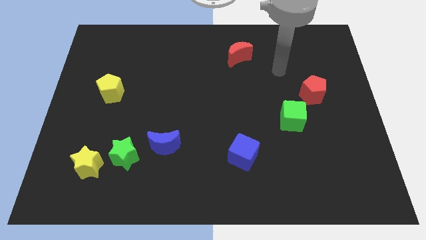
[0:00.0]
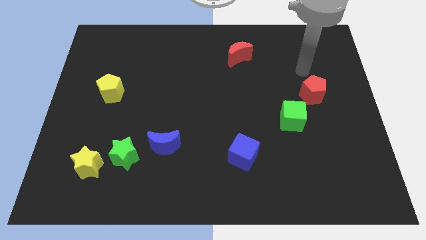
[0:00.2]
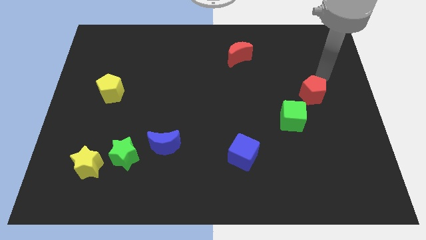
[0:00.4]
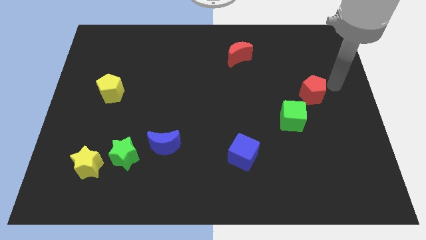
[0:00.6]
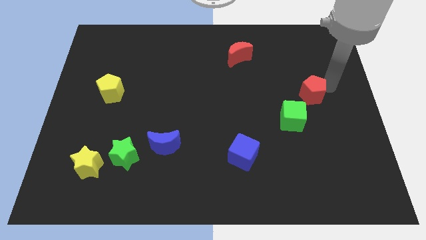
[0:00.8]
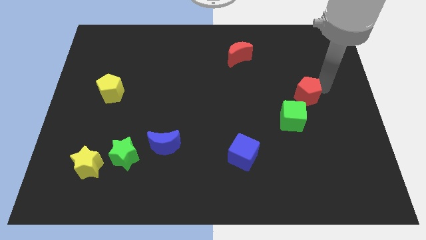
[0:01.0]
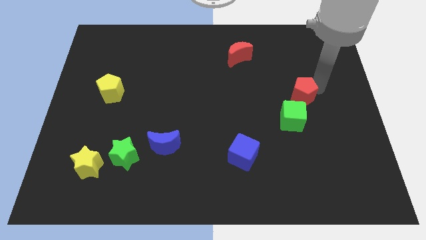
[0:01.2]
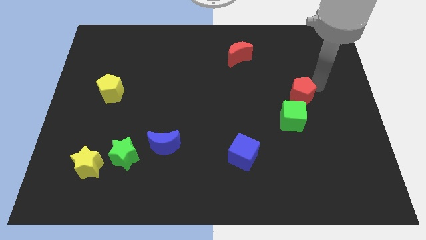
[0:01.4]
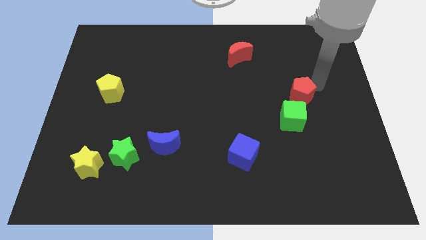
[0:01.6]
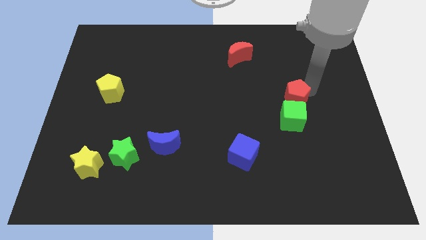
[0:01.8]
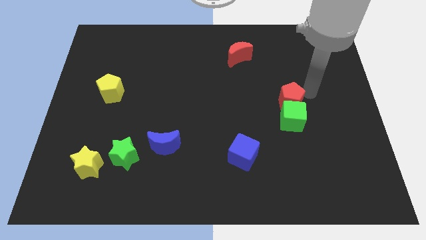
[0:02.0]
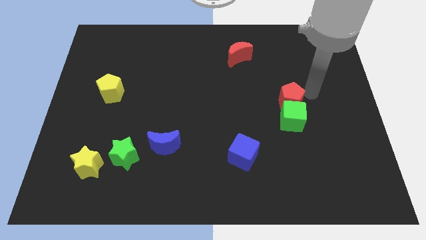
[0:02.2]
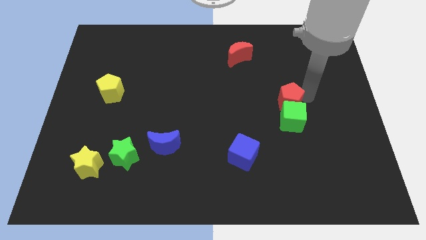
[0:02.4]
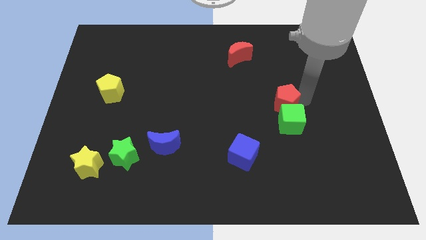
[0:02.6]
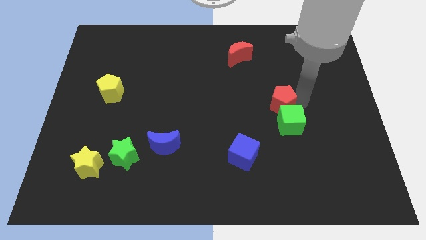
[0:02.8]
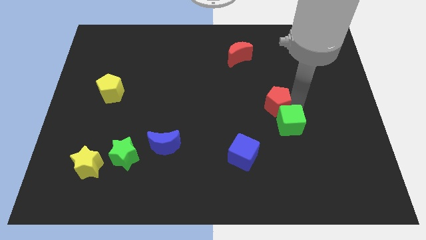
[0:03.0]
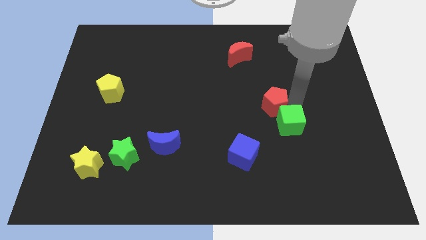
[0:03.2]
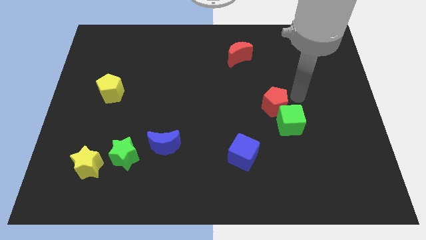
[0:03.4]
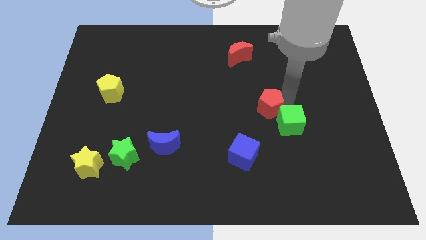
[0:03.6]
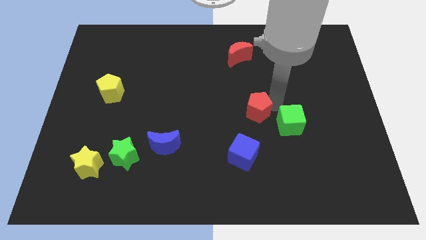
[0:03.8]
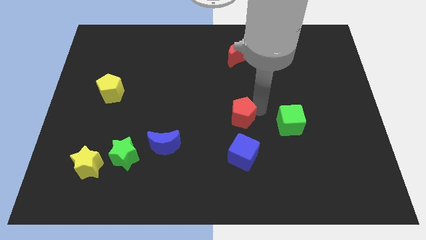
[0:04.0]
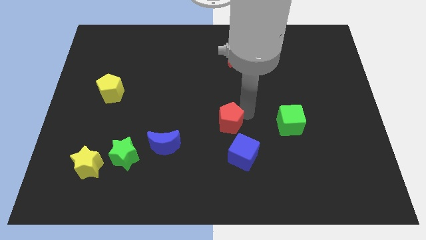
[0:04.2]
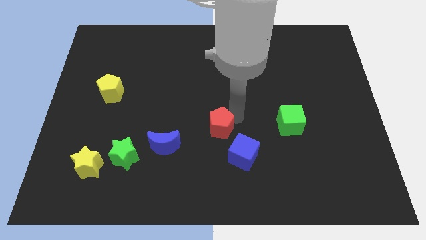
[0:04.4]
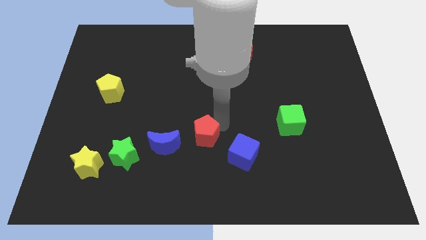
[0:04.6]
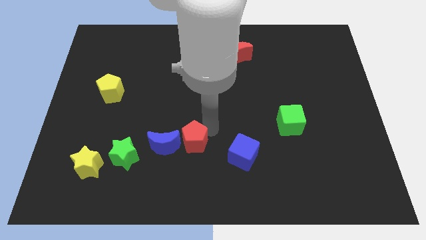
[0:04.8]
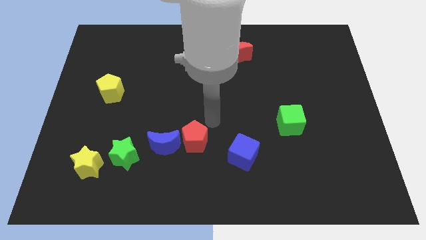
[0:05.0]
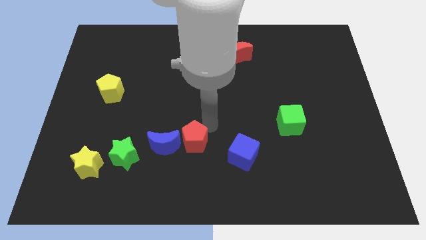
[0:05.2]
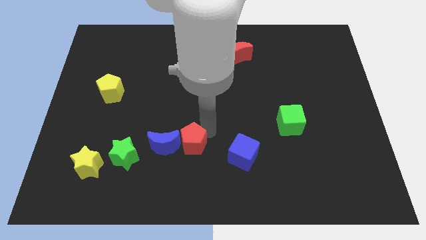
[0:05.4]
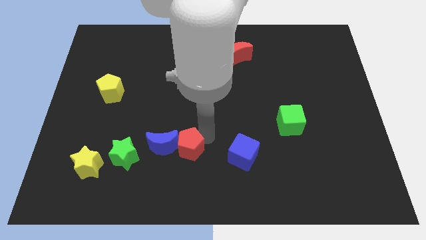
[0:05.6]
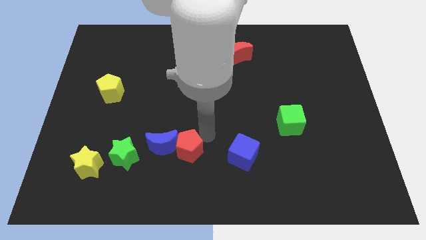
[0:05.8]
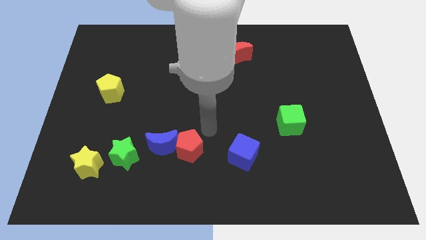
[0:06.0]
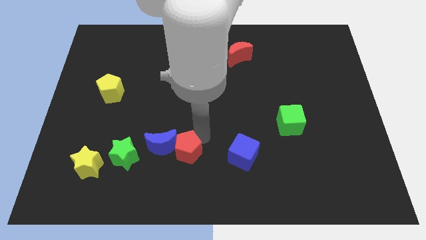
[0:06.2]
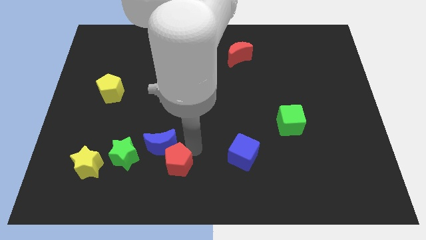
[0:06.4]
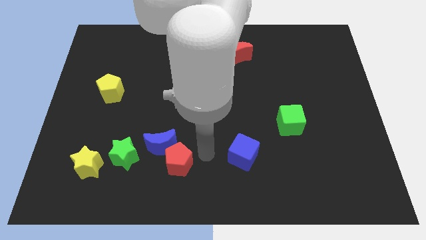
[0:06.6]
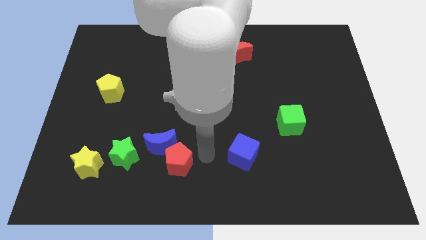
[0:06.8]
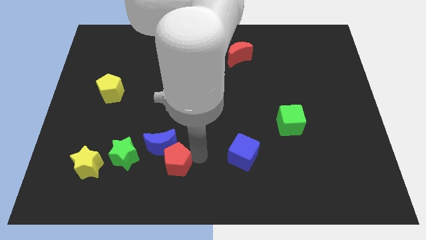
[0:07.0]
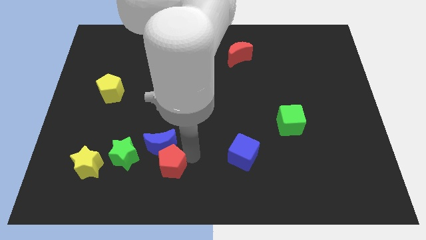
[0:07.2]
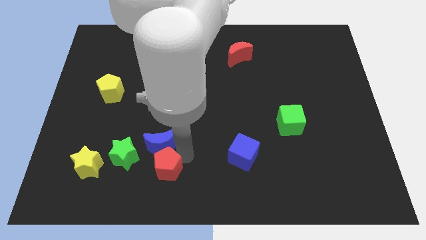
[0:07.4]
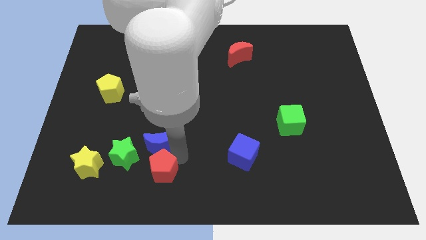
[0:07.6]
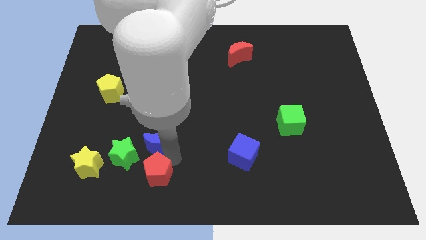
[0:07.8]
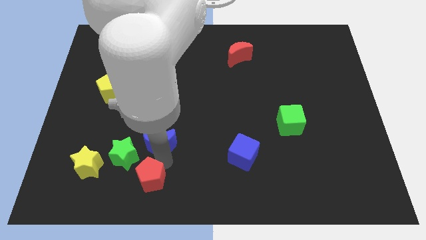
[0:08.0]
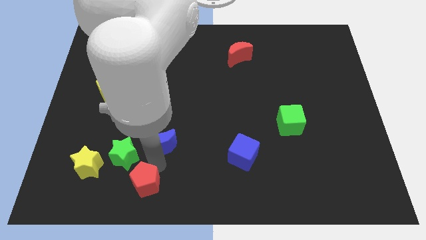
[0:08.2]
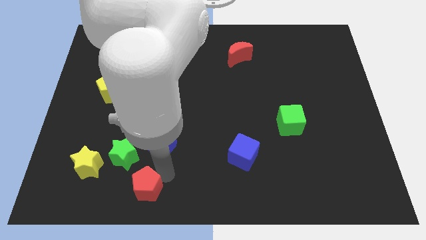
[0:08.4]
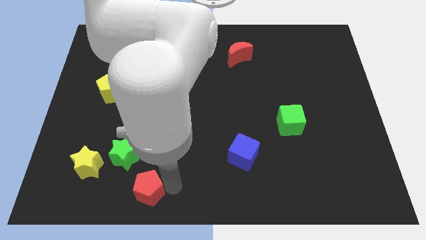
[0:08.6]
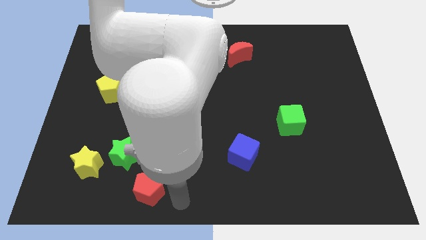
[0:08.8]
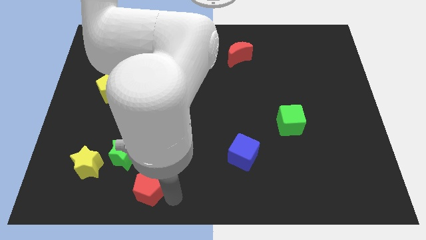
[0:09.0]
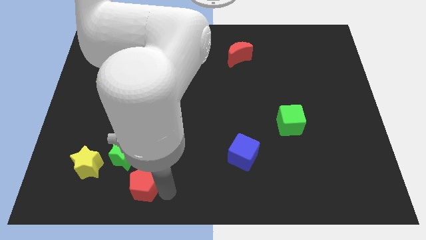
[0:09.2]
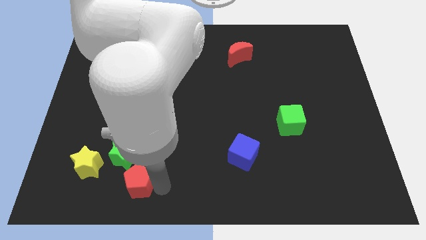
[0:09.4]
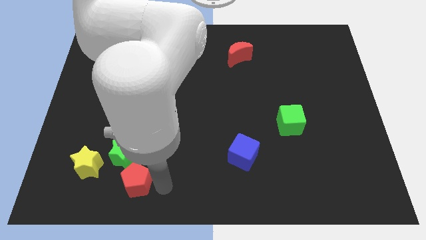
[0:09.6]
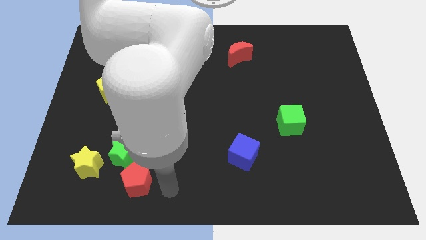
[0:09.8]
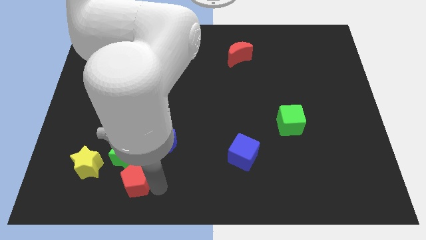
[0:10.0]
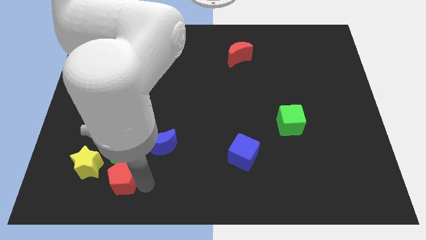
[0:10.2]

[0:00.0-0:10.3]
move the red pentagon to the bottom left side of the green star

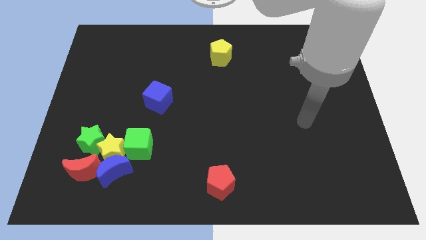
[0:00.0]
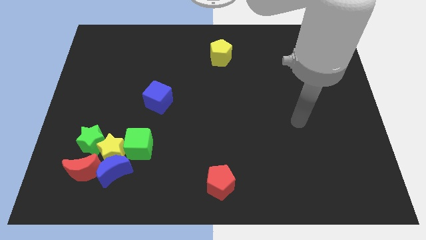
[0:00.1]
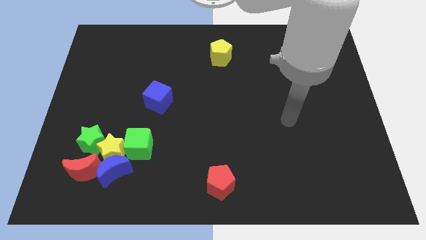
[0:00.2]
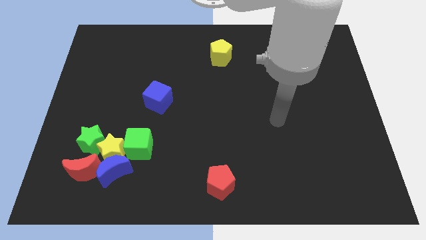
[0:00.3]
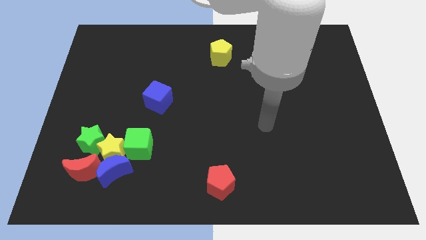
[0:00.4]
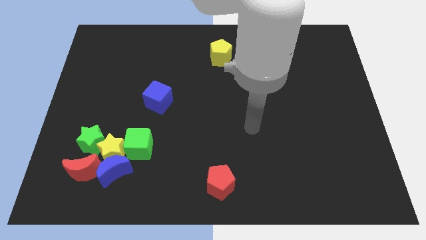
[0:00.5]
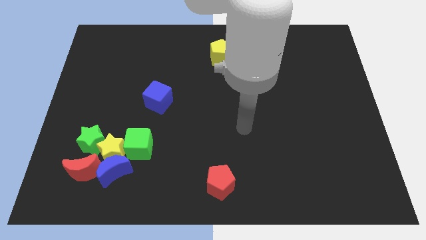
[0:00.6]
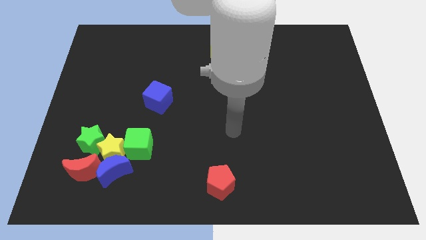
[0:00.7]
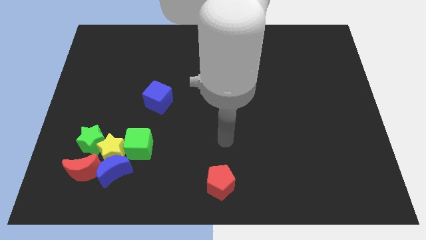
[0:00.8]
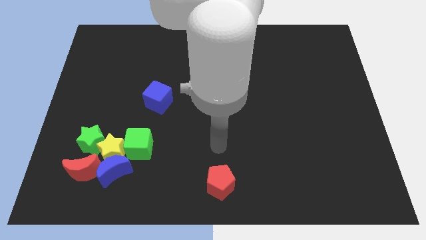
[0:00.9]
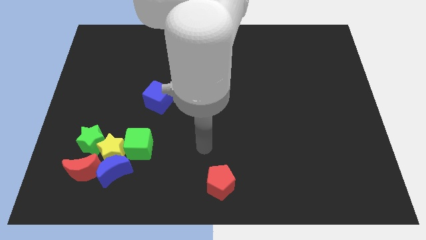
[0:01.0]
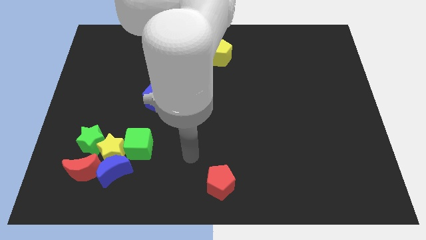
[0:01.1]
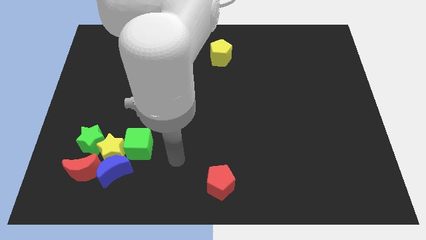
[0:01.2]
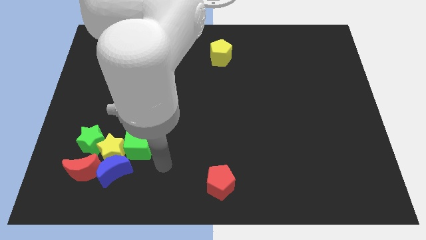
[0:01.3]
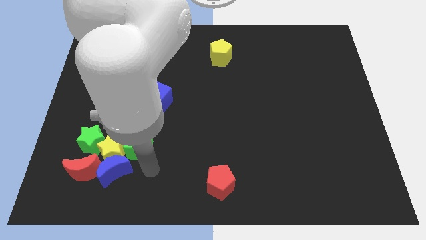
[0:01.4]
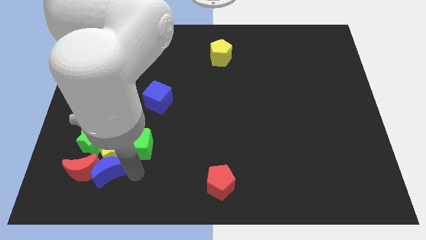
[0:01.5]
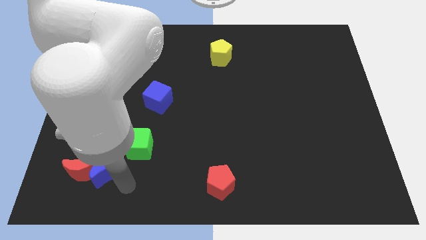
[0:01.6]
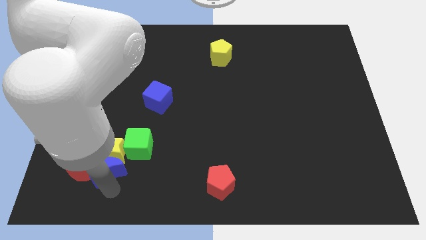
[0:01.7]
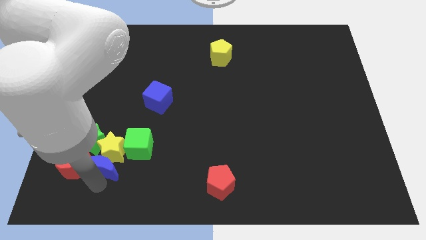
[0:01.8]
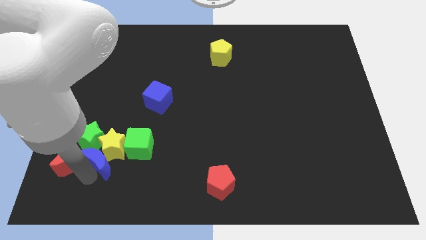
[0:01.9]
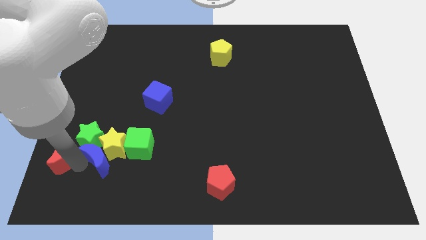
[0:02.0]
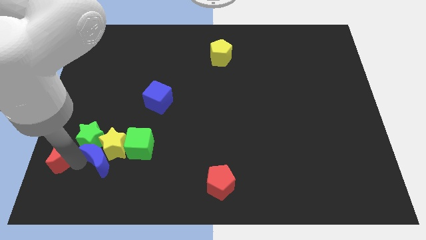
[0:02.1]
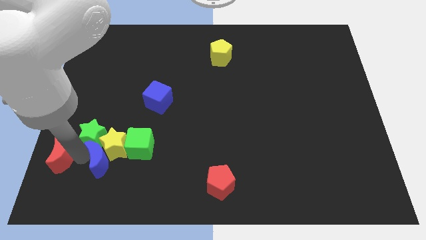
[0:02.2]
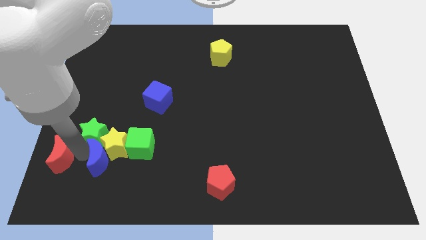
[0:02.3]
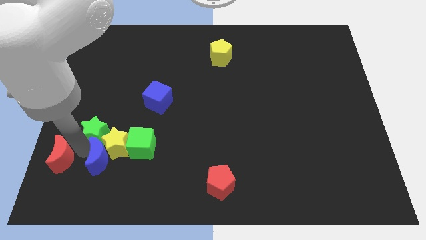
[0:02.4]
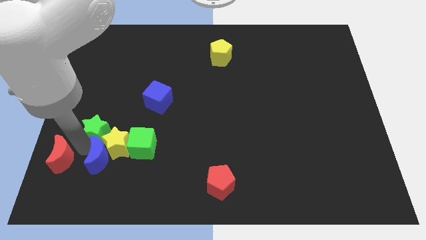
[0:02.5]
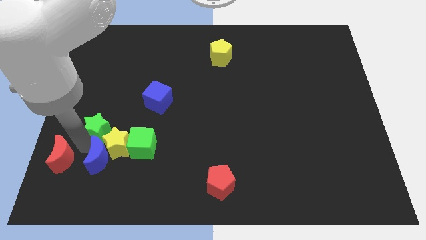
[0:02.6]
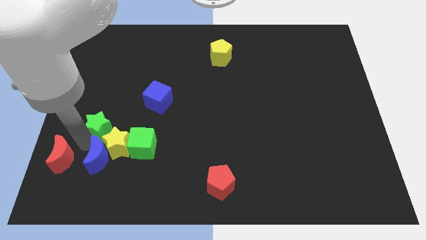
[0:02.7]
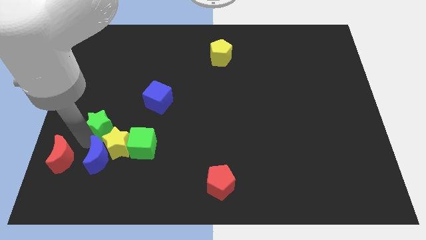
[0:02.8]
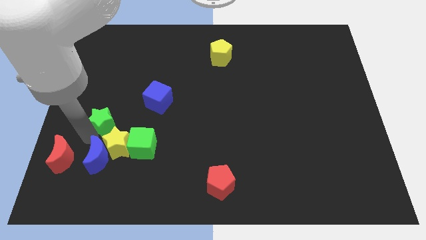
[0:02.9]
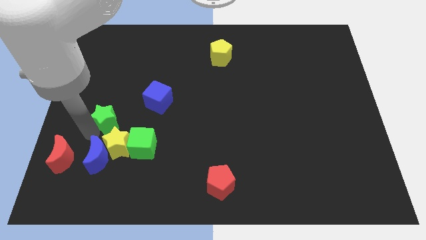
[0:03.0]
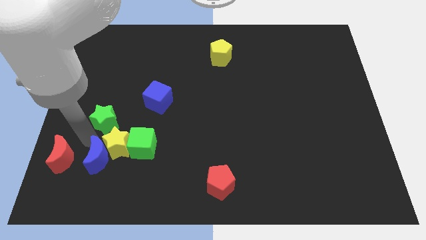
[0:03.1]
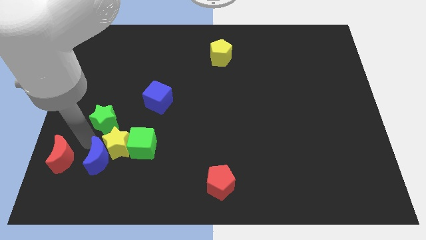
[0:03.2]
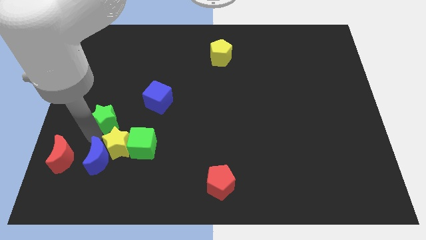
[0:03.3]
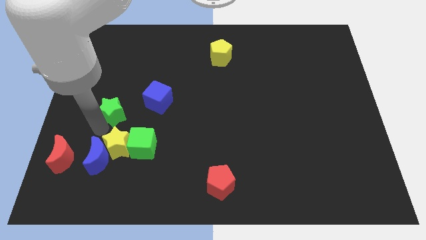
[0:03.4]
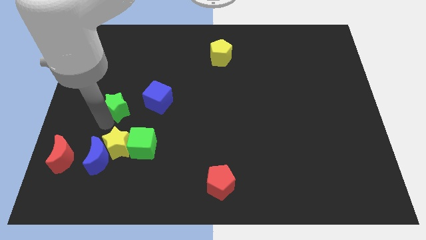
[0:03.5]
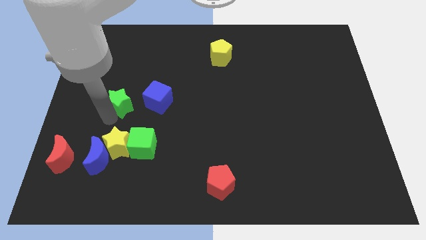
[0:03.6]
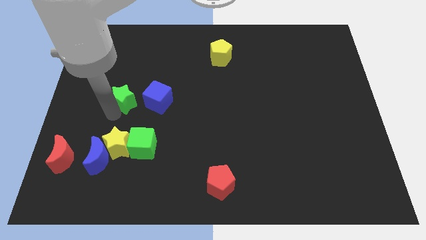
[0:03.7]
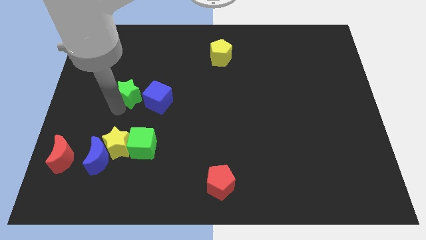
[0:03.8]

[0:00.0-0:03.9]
slide the green star to the top left side of the blue cube
